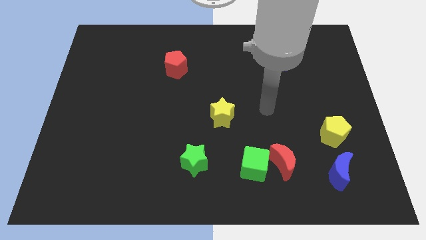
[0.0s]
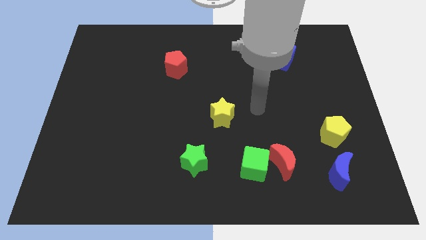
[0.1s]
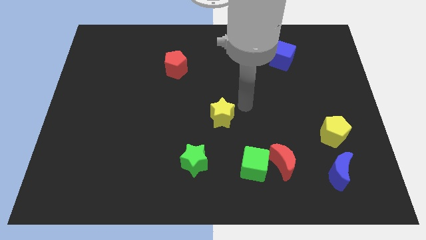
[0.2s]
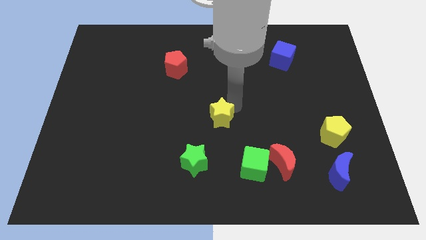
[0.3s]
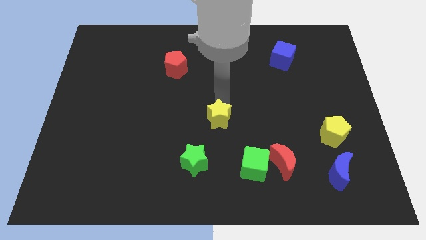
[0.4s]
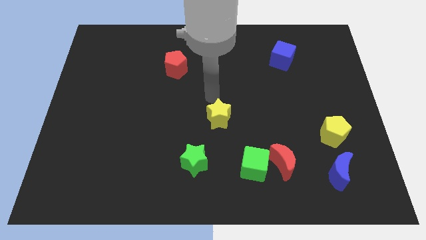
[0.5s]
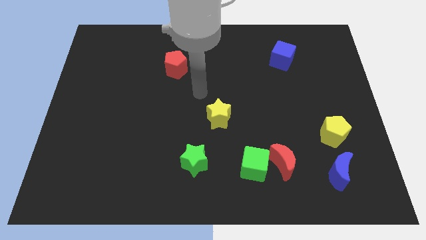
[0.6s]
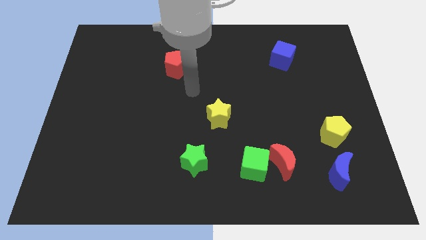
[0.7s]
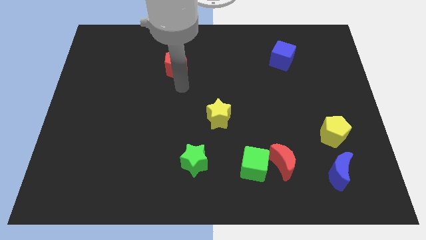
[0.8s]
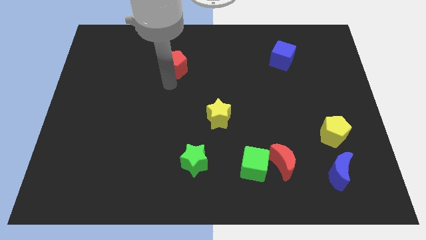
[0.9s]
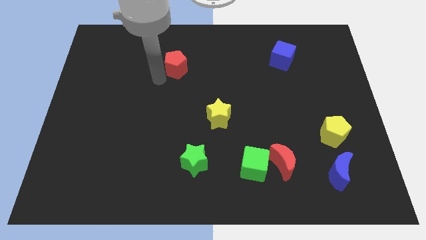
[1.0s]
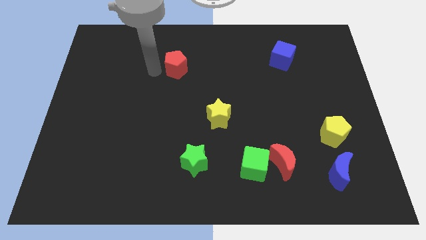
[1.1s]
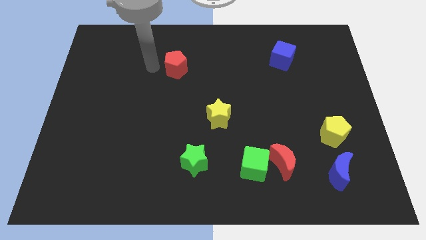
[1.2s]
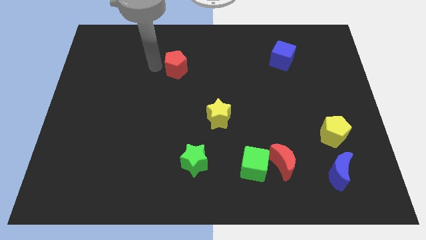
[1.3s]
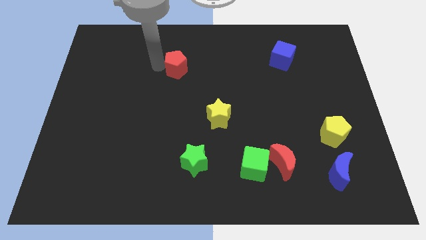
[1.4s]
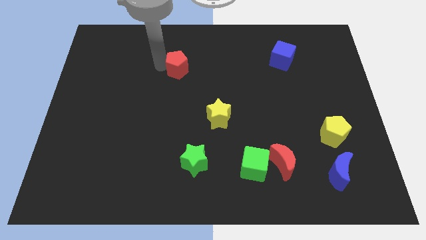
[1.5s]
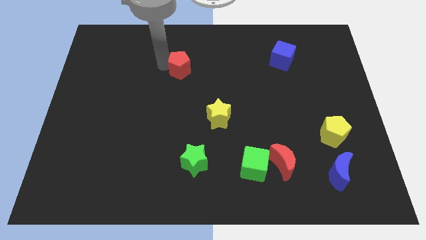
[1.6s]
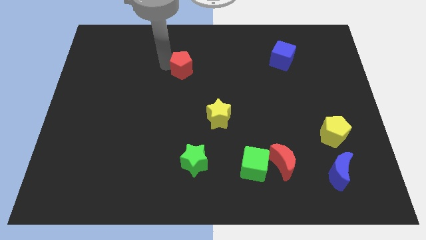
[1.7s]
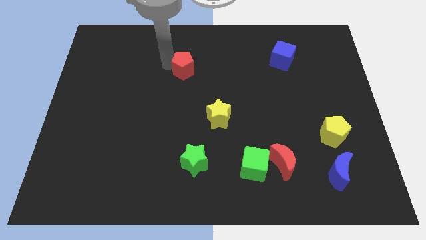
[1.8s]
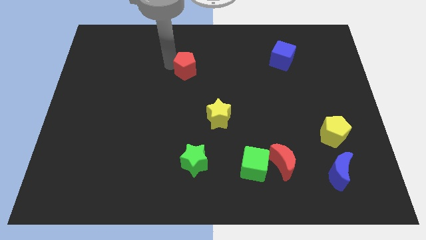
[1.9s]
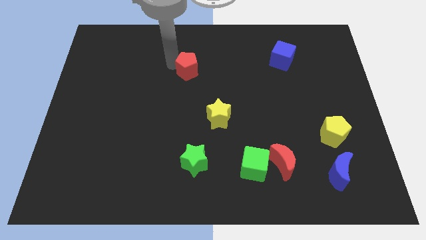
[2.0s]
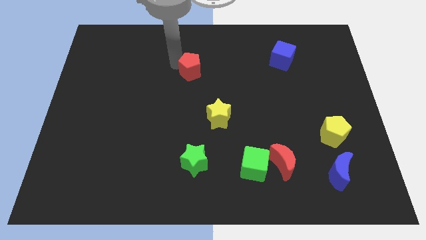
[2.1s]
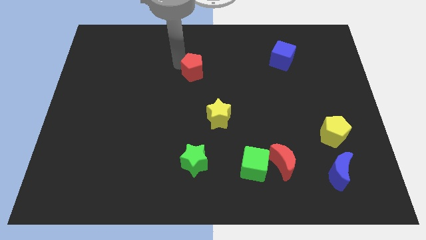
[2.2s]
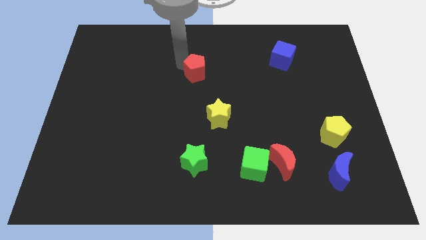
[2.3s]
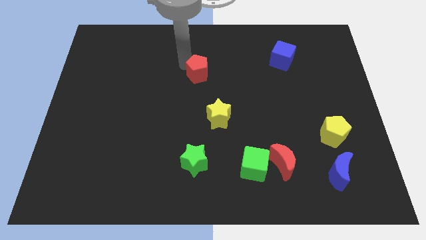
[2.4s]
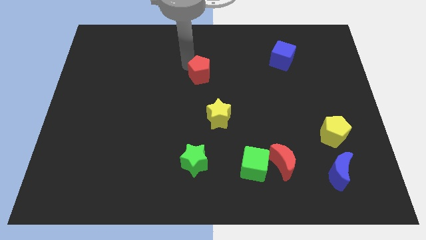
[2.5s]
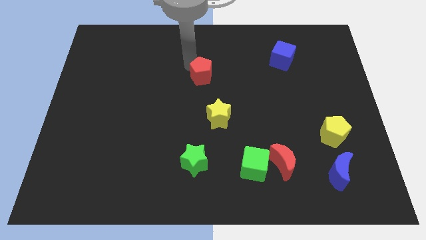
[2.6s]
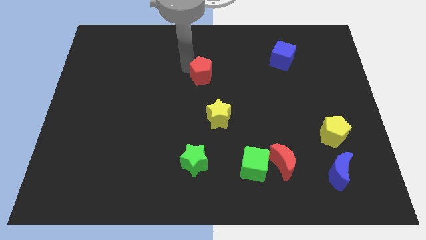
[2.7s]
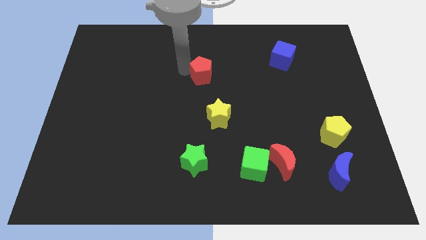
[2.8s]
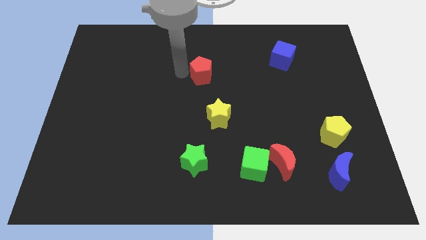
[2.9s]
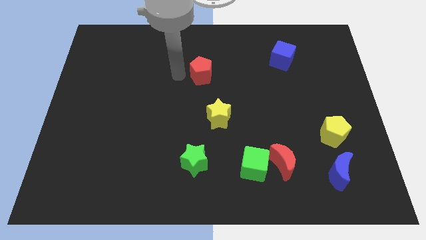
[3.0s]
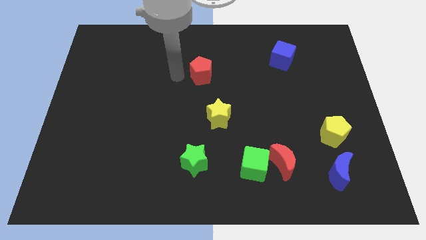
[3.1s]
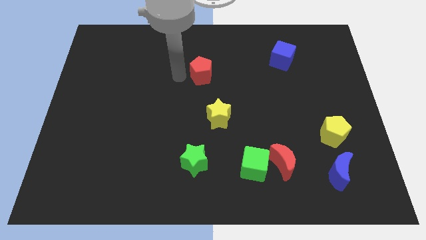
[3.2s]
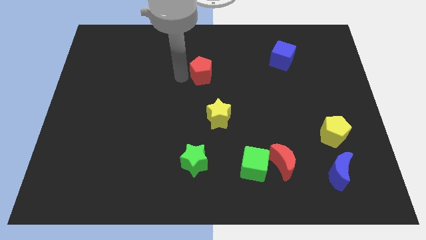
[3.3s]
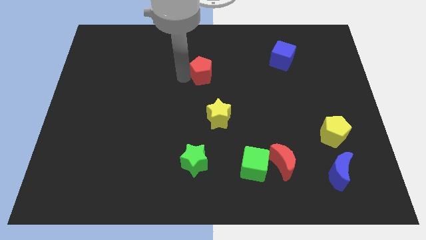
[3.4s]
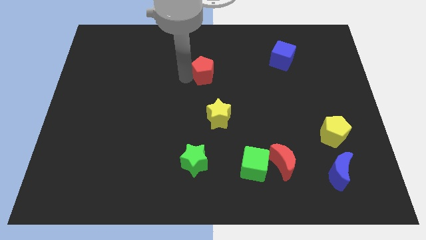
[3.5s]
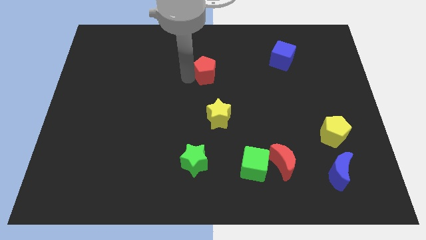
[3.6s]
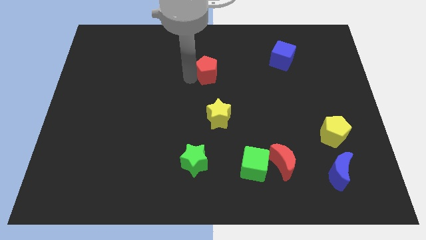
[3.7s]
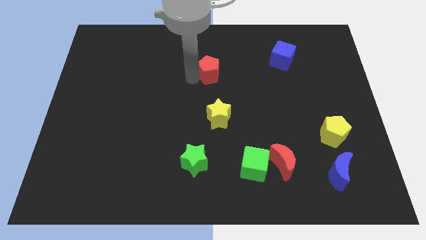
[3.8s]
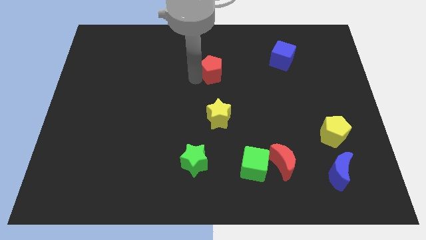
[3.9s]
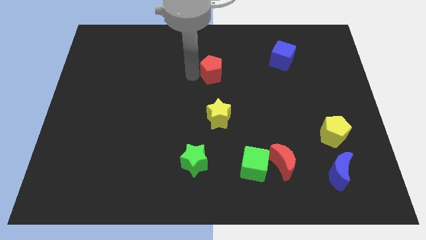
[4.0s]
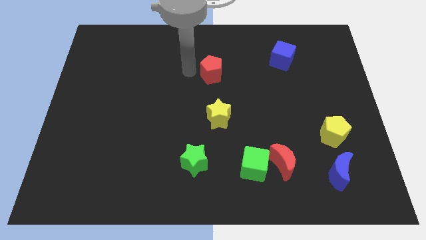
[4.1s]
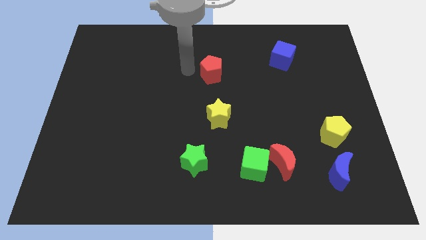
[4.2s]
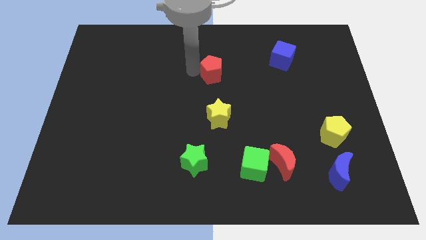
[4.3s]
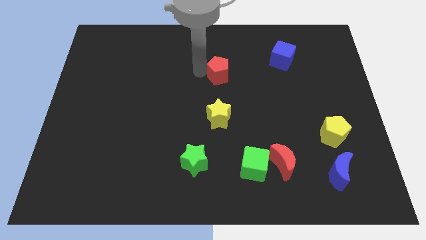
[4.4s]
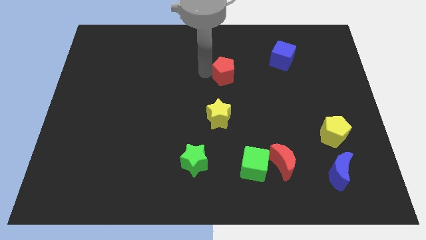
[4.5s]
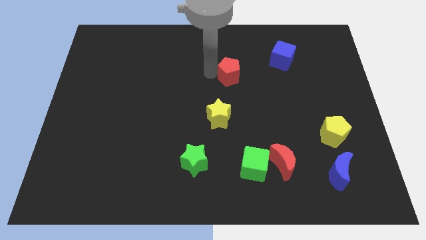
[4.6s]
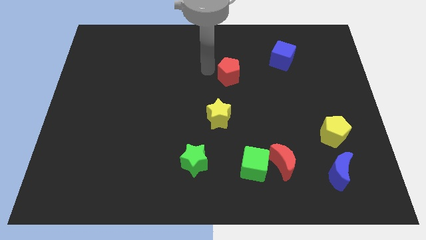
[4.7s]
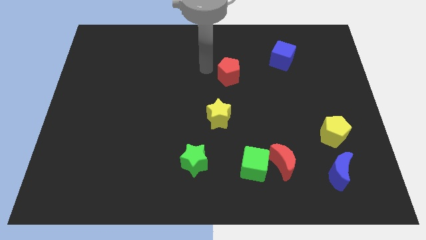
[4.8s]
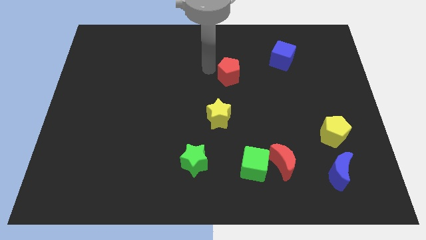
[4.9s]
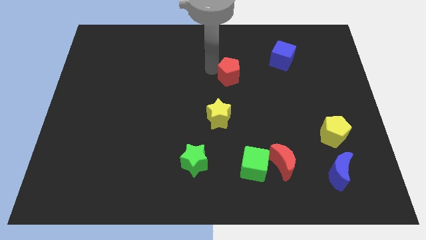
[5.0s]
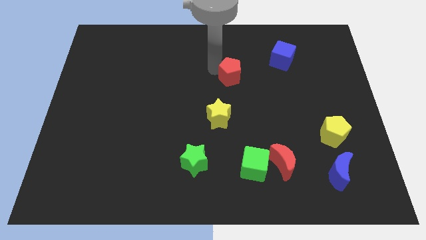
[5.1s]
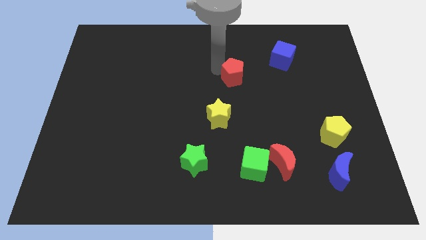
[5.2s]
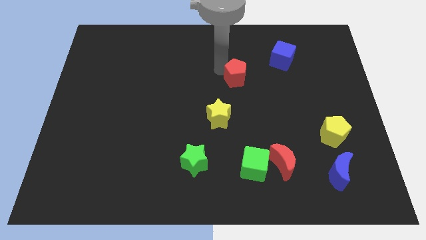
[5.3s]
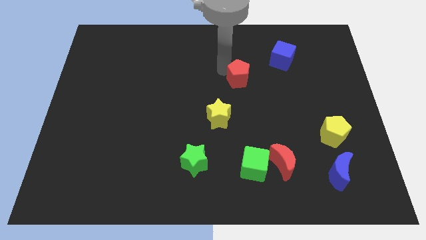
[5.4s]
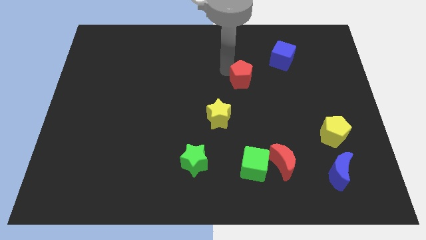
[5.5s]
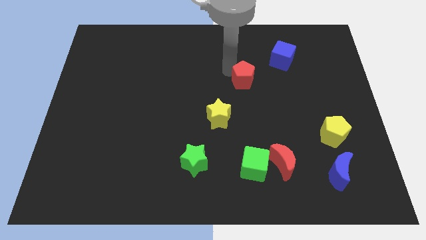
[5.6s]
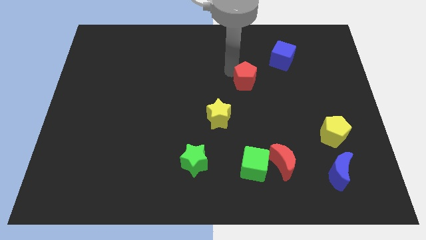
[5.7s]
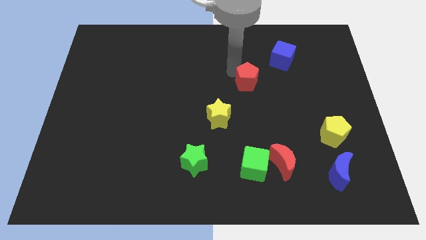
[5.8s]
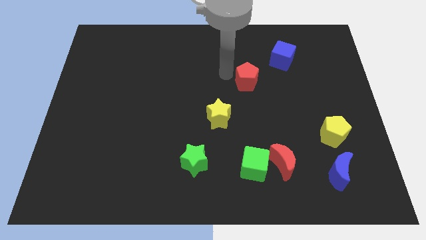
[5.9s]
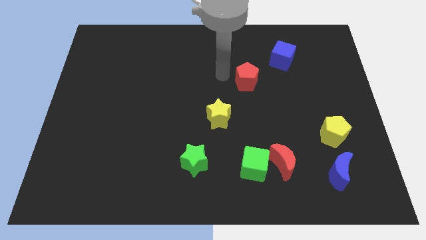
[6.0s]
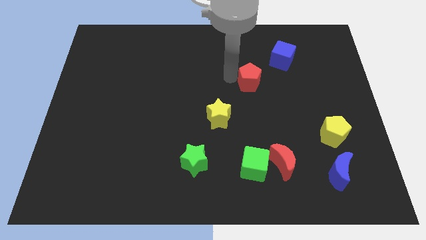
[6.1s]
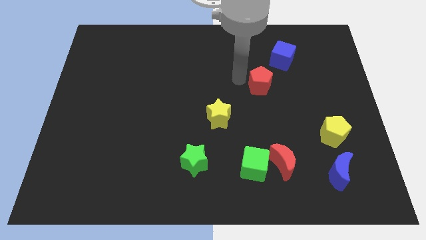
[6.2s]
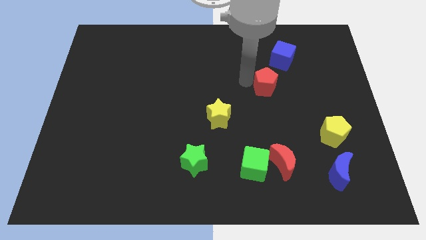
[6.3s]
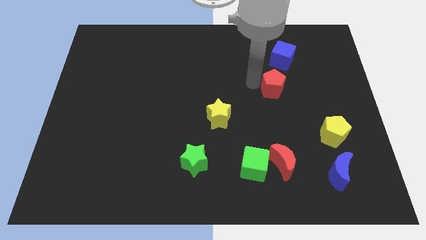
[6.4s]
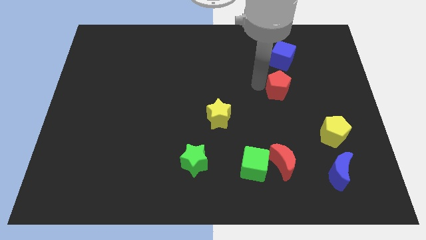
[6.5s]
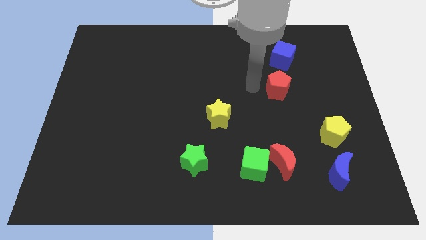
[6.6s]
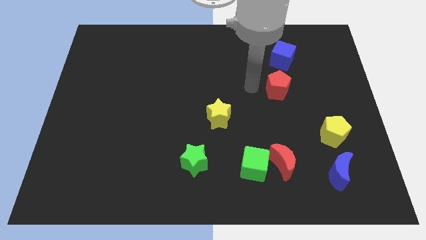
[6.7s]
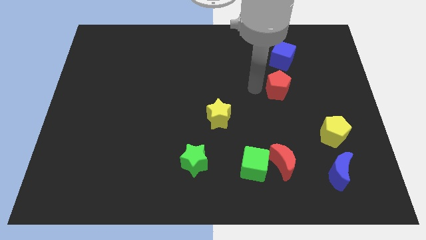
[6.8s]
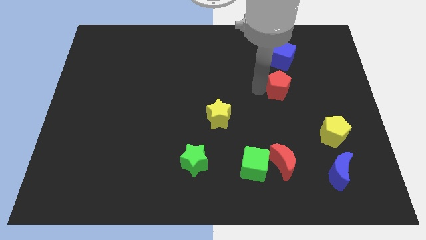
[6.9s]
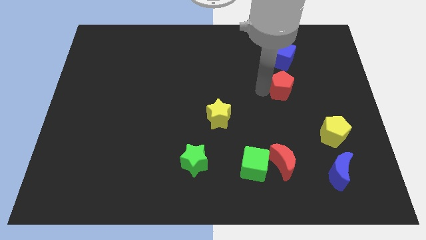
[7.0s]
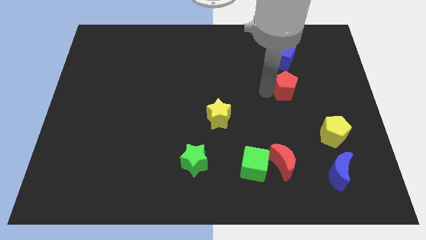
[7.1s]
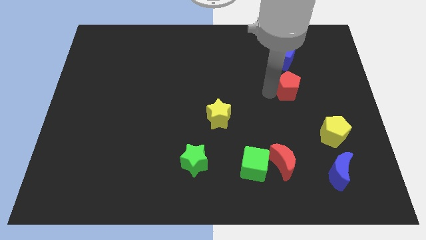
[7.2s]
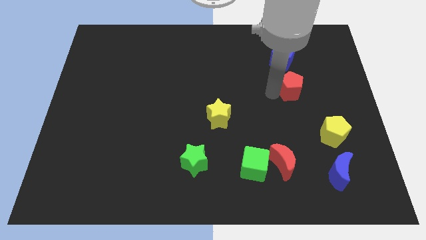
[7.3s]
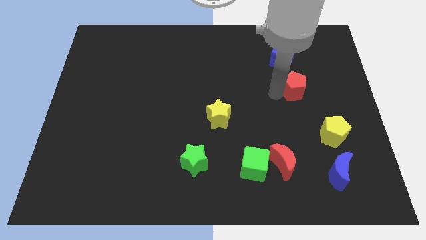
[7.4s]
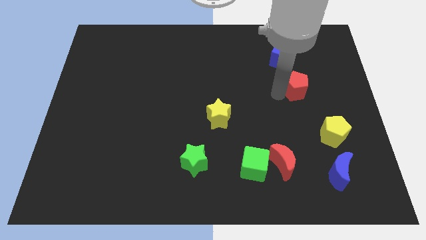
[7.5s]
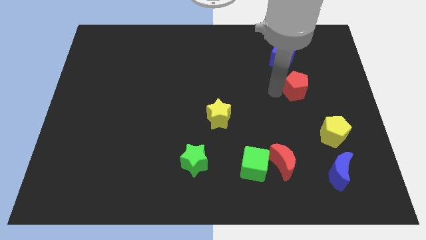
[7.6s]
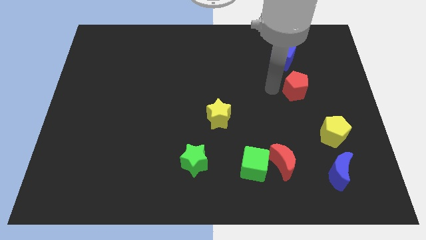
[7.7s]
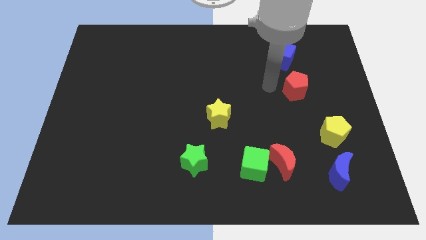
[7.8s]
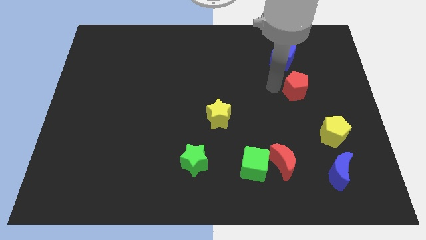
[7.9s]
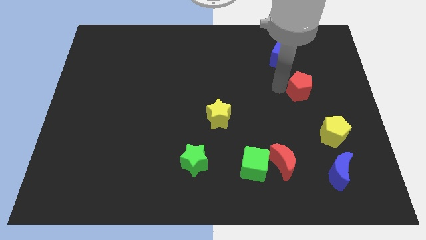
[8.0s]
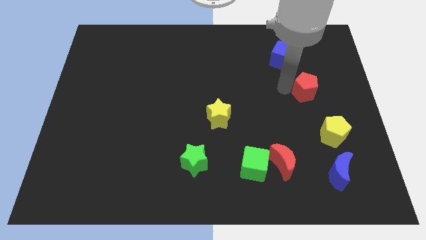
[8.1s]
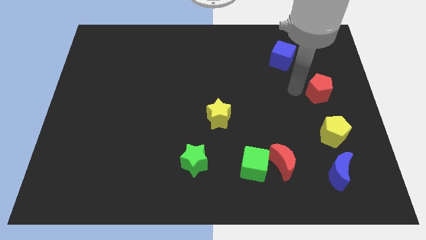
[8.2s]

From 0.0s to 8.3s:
push the red pentagon to the center right
